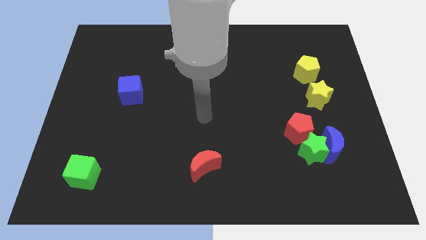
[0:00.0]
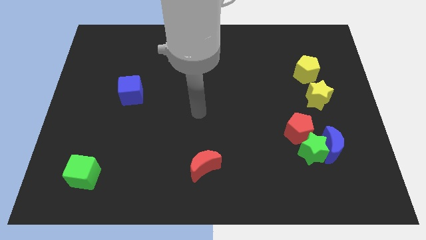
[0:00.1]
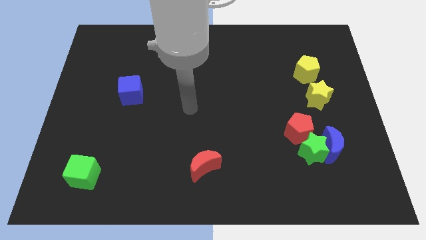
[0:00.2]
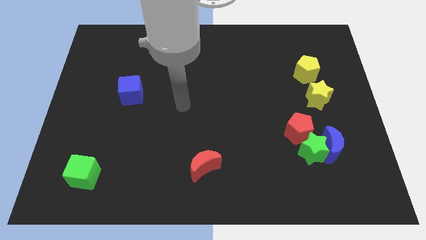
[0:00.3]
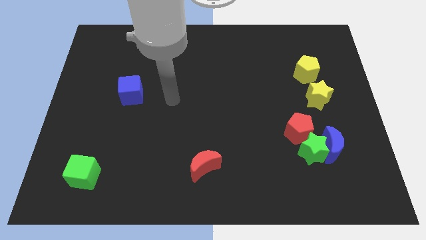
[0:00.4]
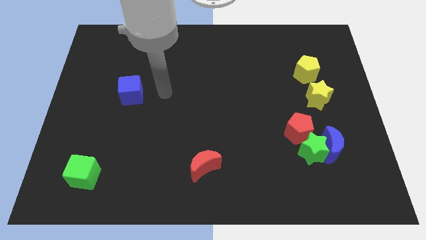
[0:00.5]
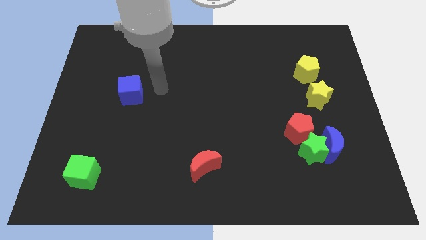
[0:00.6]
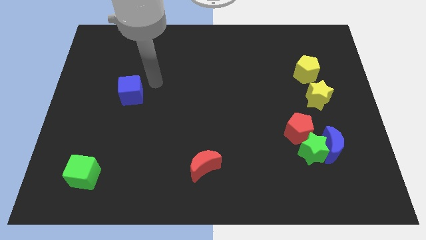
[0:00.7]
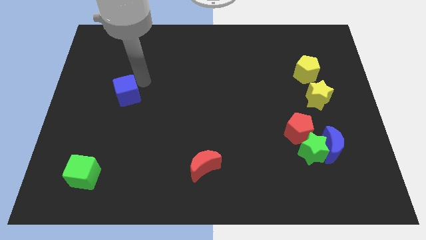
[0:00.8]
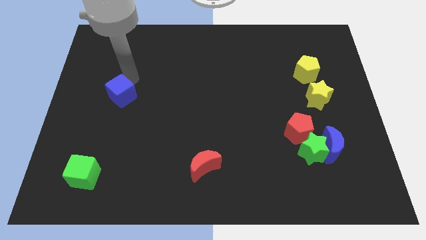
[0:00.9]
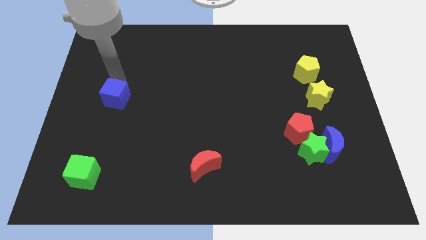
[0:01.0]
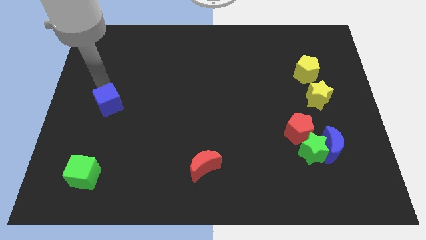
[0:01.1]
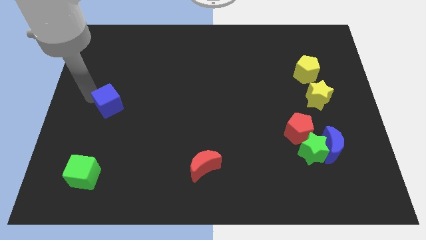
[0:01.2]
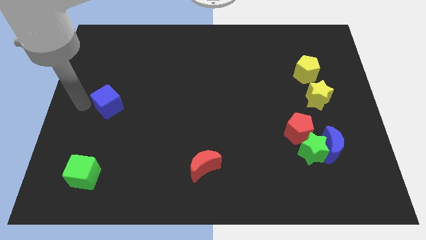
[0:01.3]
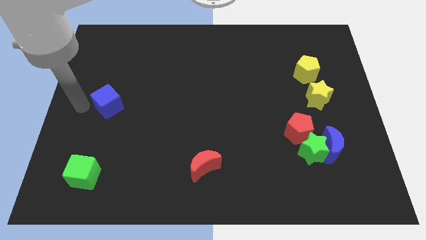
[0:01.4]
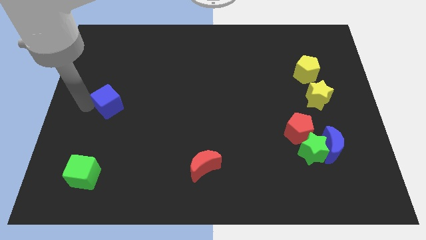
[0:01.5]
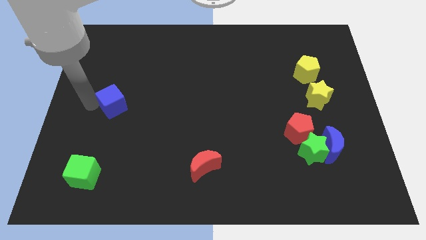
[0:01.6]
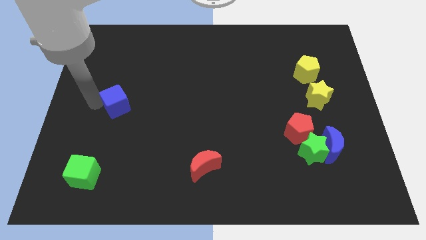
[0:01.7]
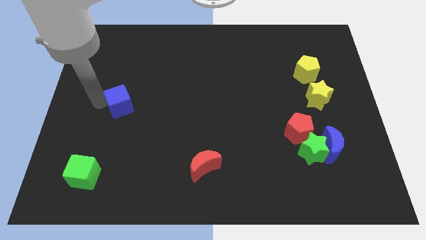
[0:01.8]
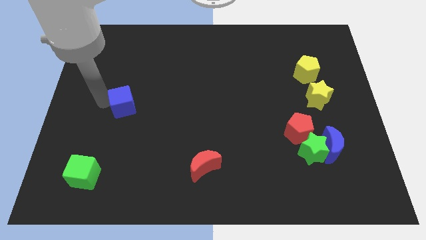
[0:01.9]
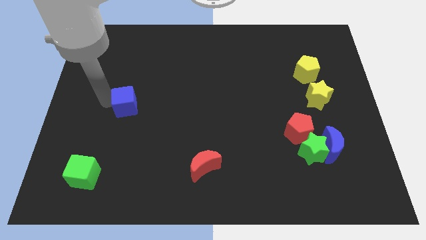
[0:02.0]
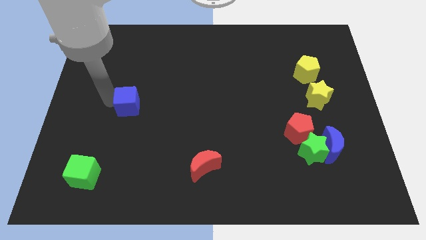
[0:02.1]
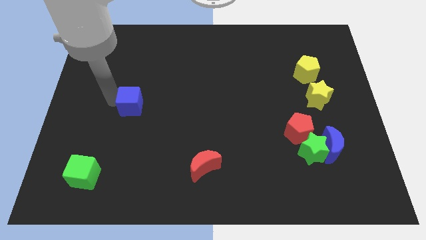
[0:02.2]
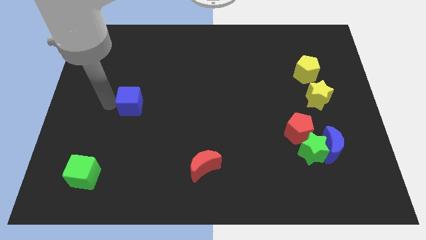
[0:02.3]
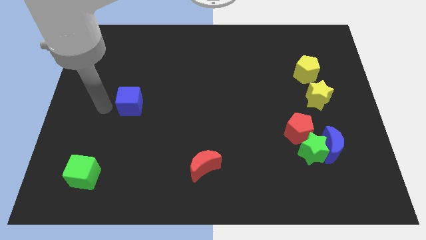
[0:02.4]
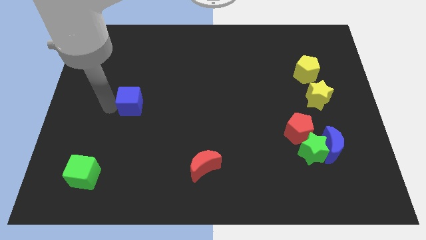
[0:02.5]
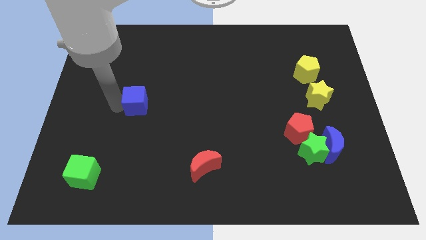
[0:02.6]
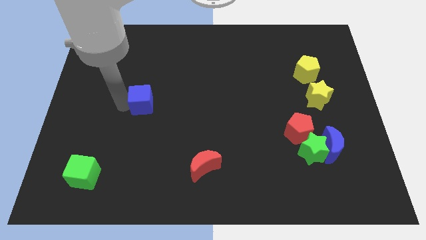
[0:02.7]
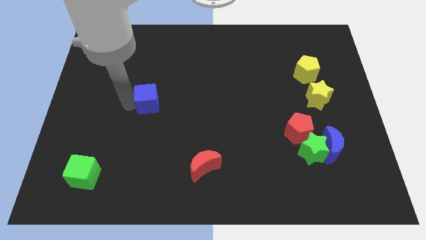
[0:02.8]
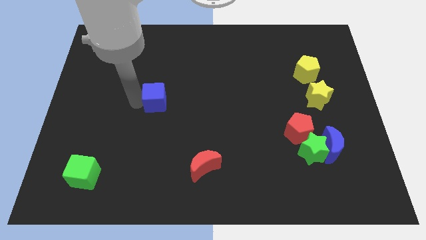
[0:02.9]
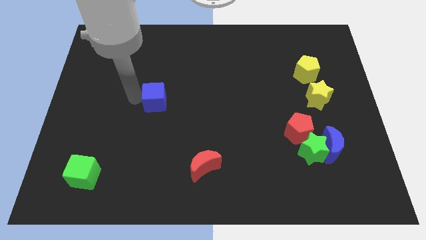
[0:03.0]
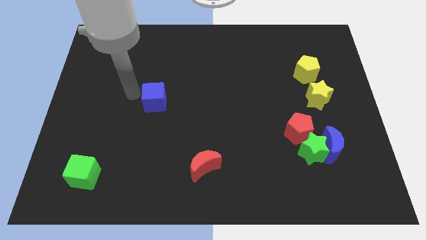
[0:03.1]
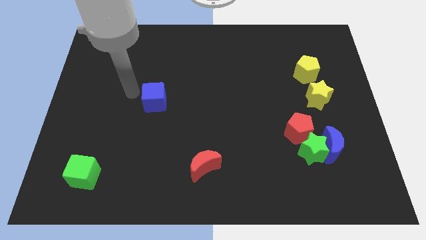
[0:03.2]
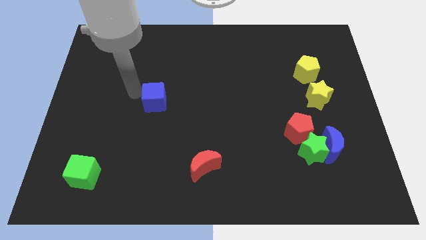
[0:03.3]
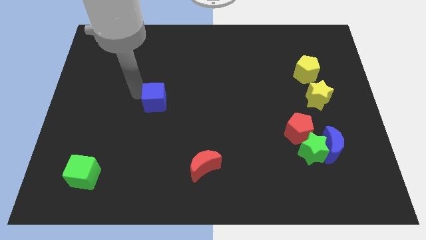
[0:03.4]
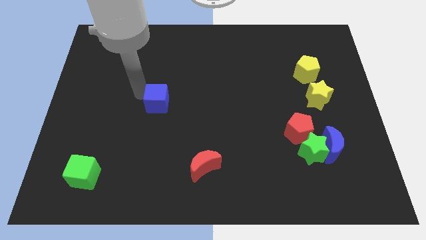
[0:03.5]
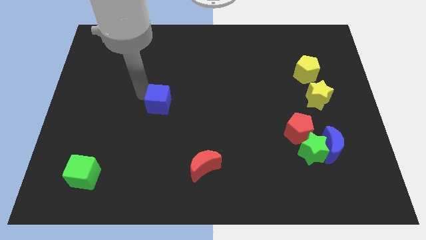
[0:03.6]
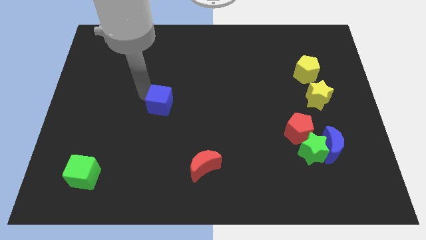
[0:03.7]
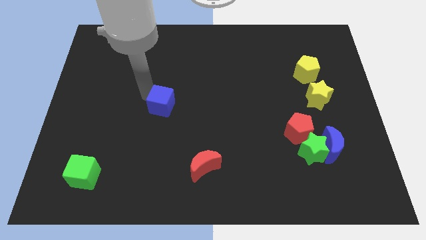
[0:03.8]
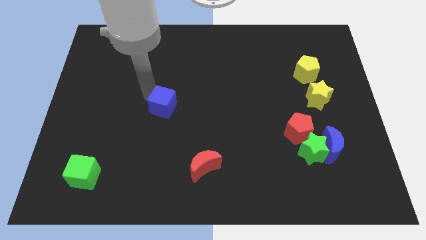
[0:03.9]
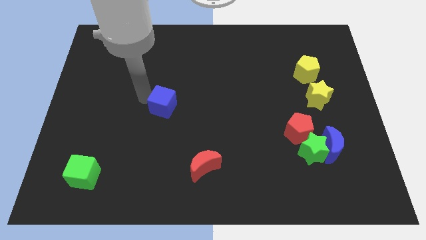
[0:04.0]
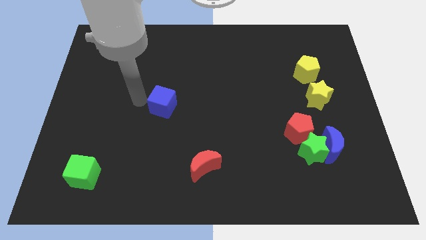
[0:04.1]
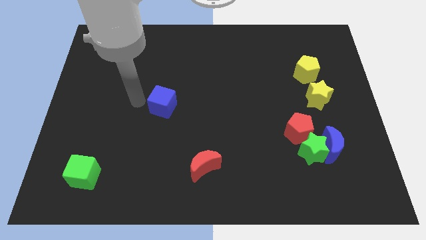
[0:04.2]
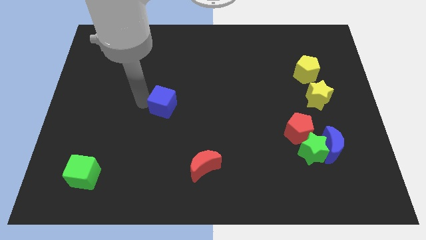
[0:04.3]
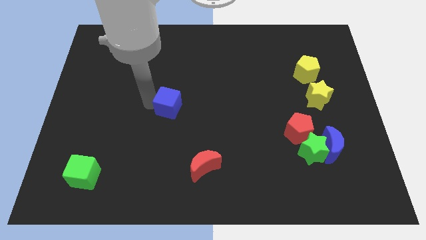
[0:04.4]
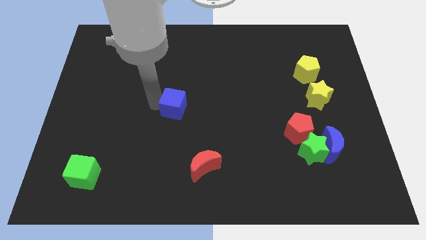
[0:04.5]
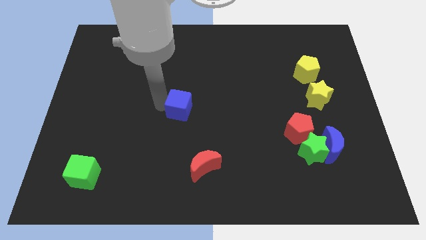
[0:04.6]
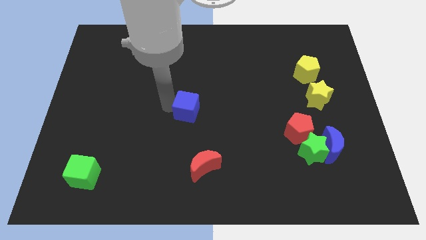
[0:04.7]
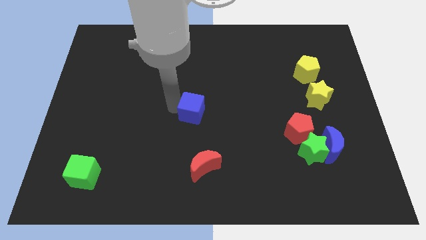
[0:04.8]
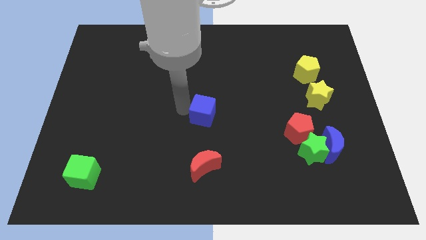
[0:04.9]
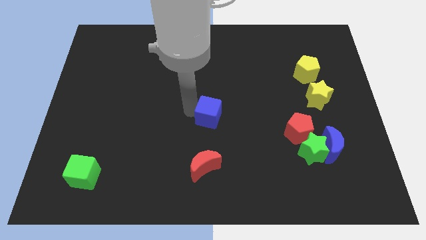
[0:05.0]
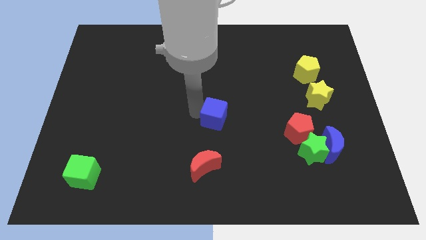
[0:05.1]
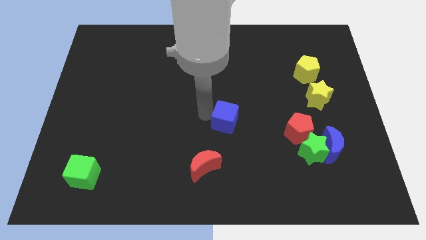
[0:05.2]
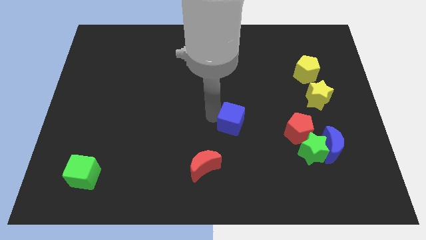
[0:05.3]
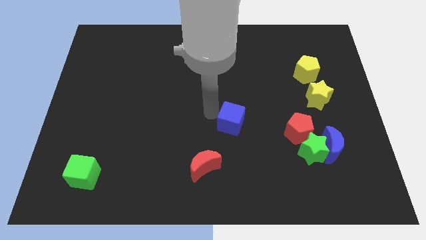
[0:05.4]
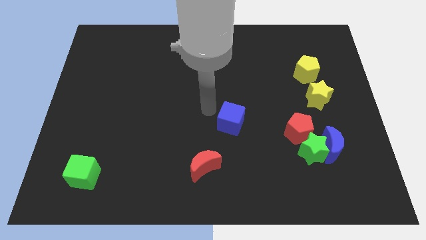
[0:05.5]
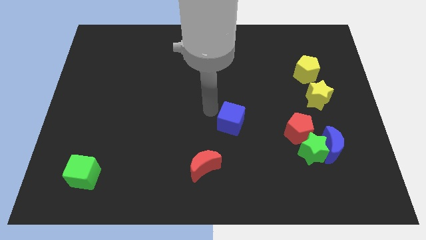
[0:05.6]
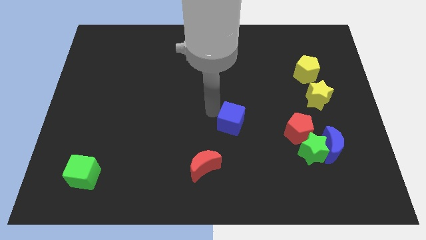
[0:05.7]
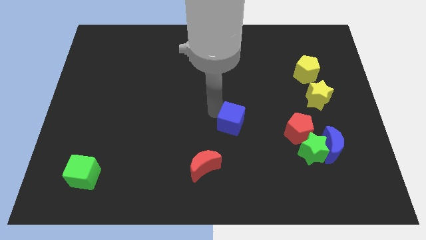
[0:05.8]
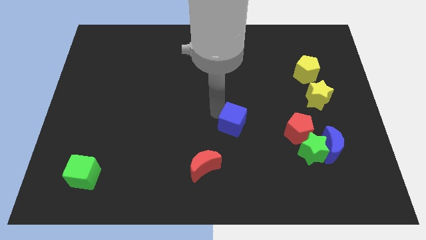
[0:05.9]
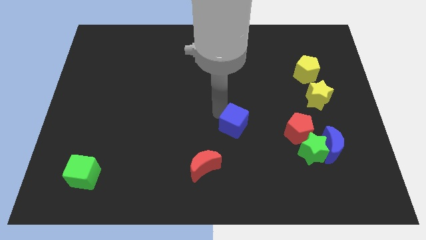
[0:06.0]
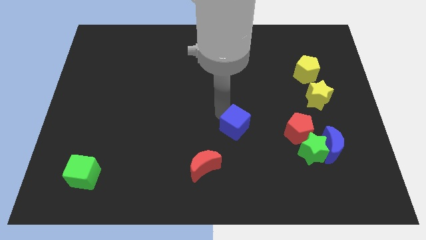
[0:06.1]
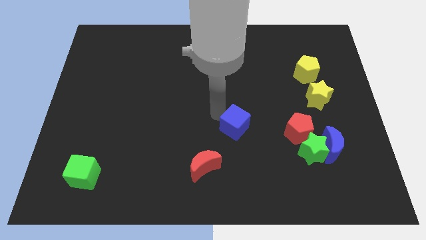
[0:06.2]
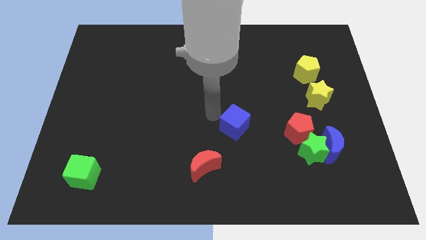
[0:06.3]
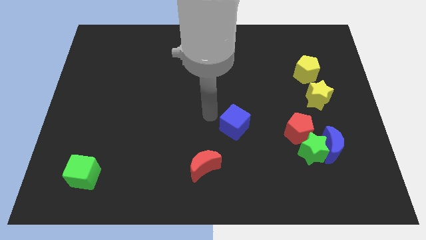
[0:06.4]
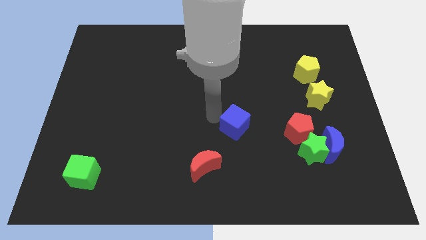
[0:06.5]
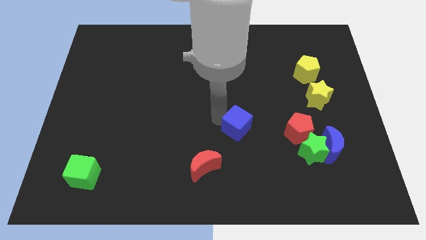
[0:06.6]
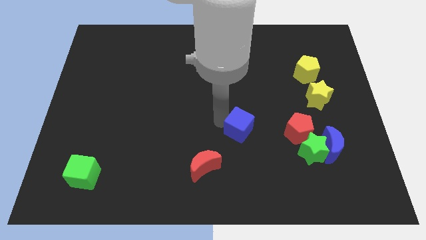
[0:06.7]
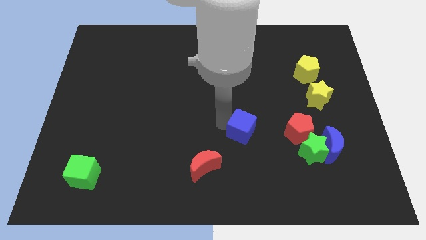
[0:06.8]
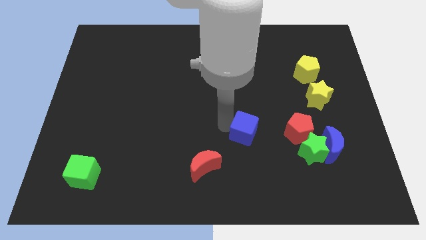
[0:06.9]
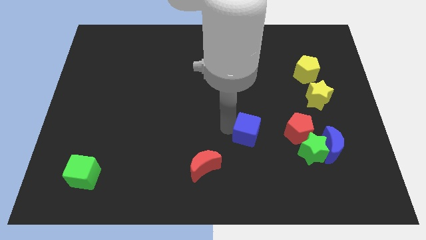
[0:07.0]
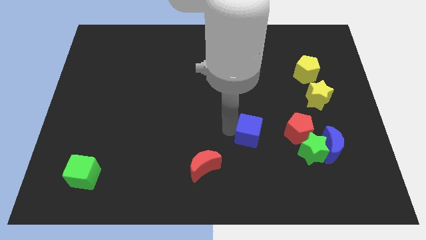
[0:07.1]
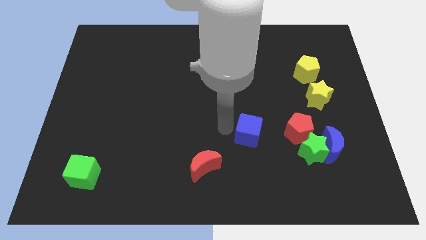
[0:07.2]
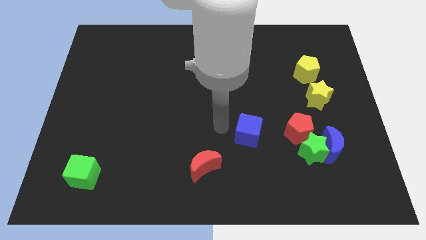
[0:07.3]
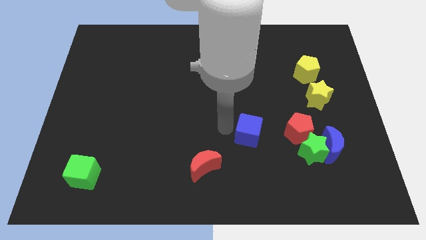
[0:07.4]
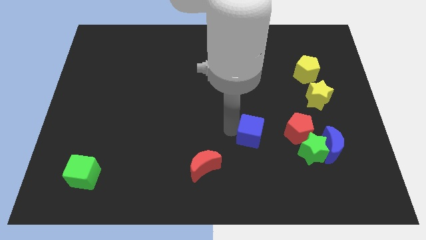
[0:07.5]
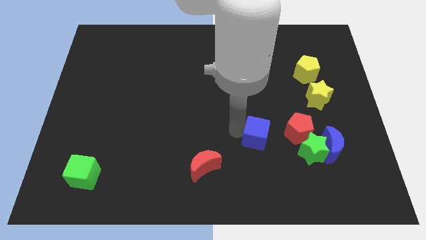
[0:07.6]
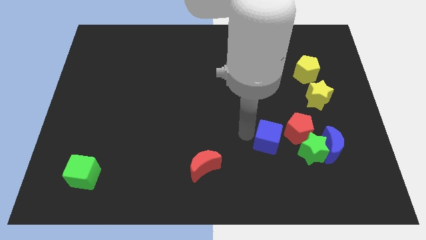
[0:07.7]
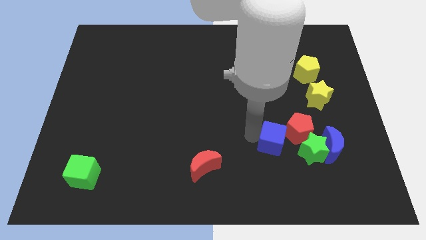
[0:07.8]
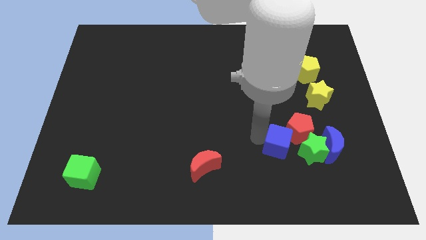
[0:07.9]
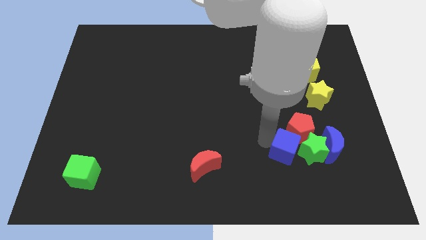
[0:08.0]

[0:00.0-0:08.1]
move the blue cube close to the green star
